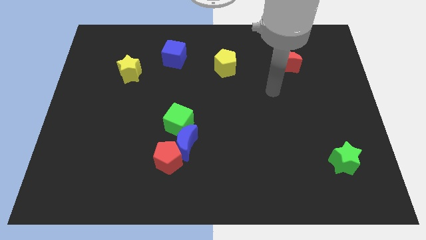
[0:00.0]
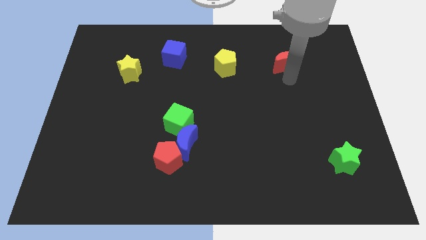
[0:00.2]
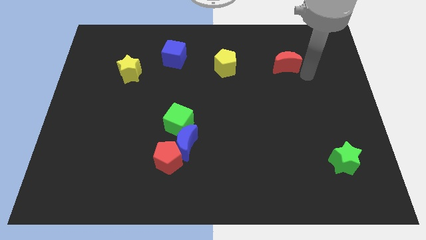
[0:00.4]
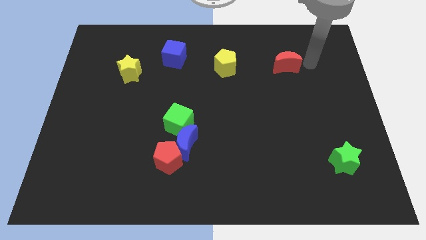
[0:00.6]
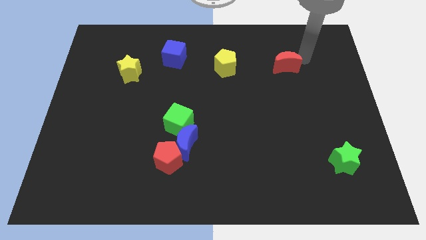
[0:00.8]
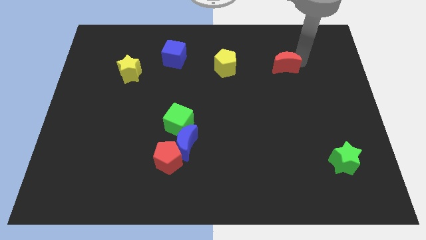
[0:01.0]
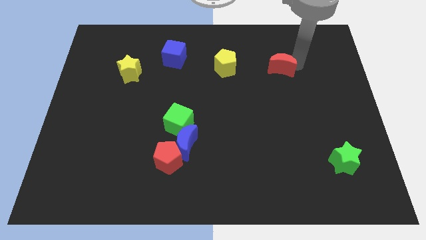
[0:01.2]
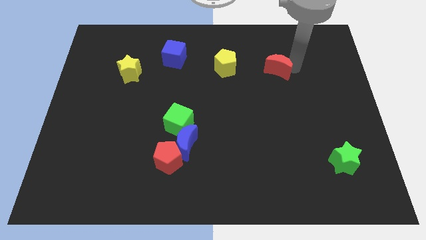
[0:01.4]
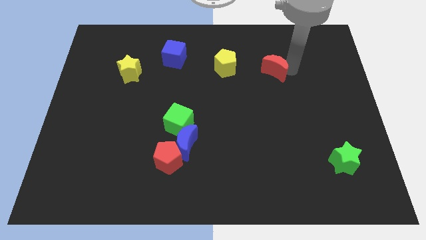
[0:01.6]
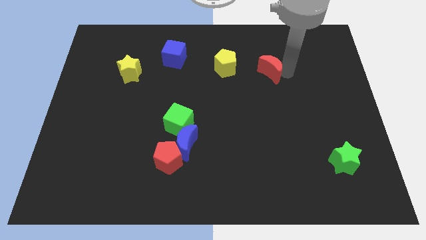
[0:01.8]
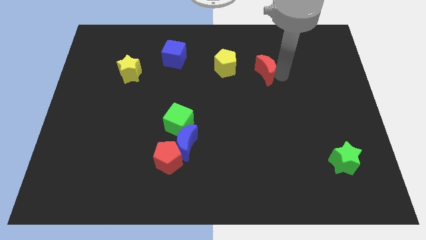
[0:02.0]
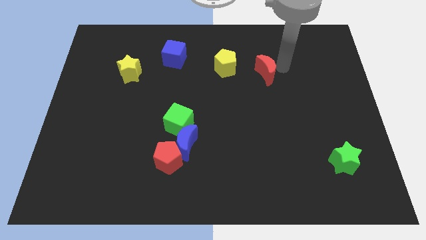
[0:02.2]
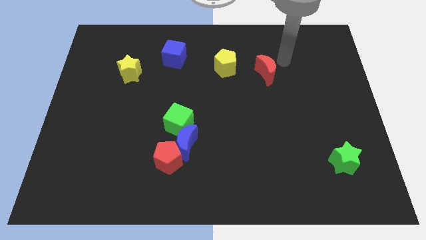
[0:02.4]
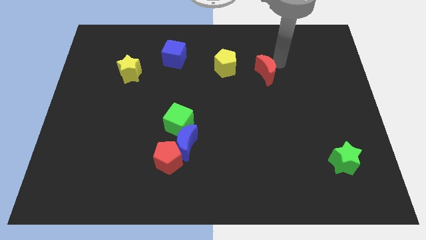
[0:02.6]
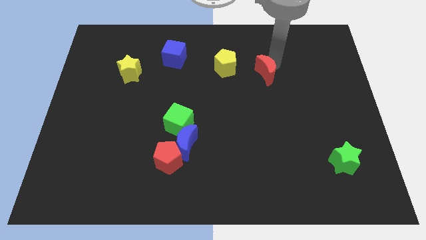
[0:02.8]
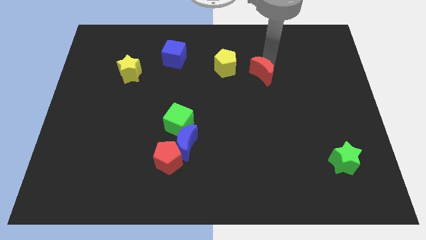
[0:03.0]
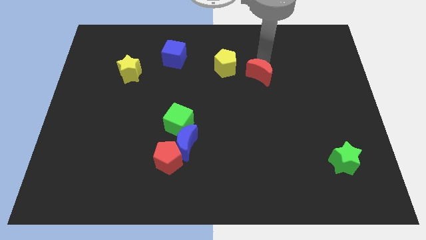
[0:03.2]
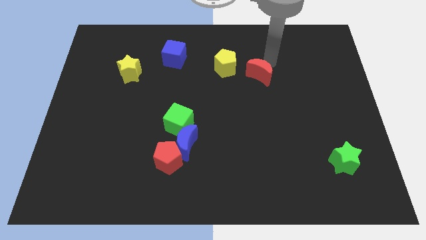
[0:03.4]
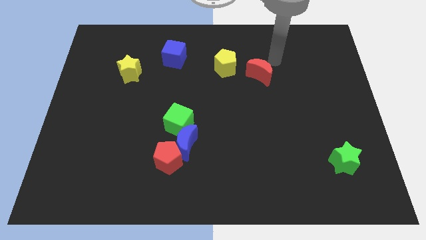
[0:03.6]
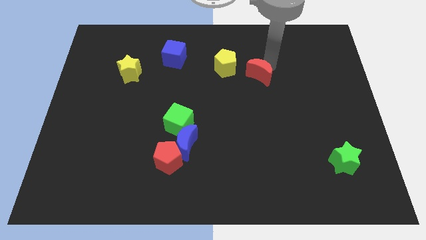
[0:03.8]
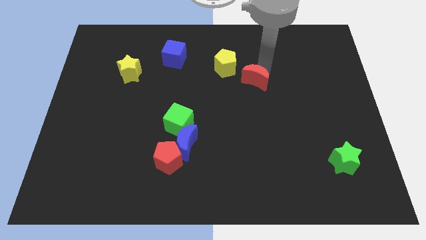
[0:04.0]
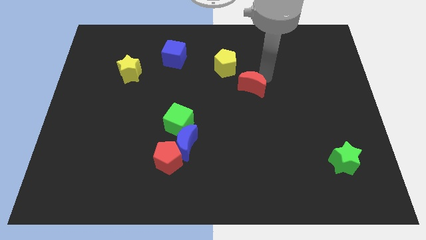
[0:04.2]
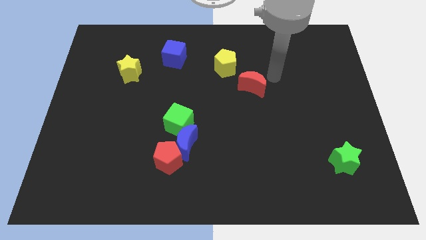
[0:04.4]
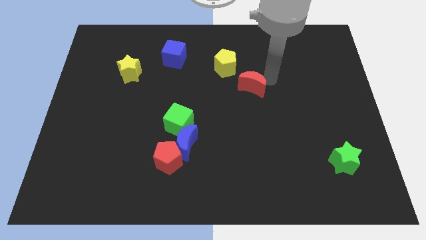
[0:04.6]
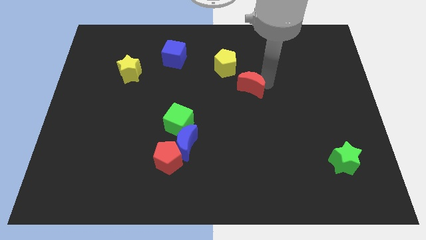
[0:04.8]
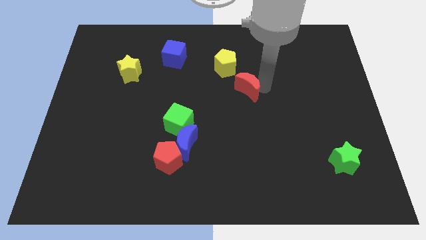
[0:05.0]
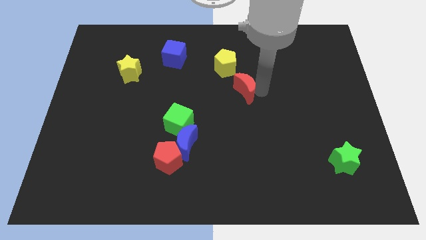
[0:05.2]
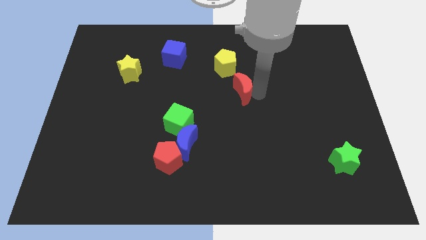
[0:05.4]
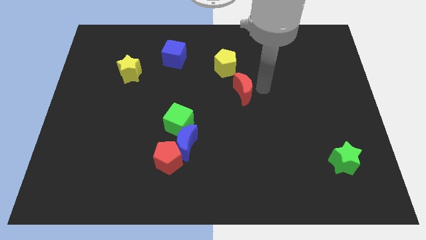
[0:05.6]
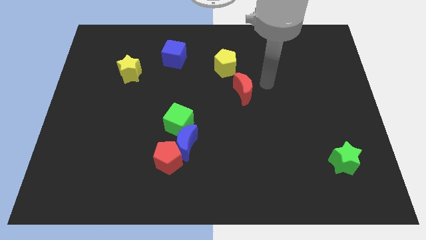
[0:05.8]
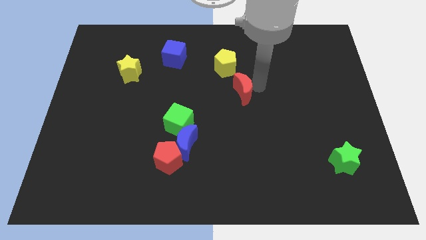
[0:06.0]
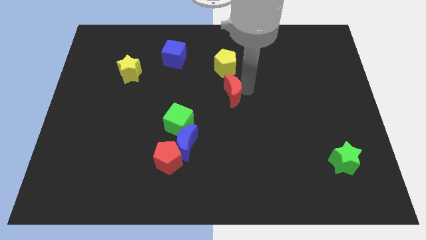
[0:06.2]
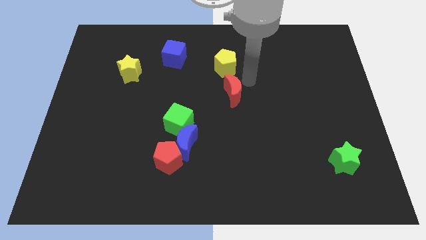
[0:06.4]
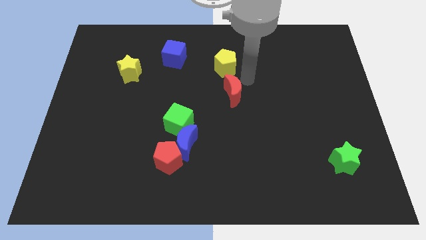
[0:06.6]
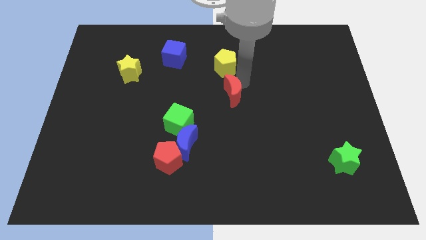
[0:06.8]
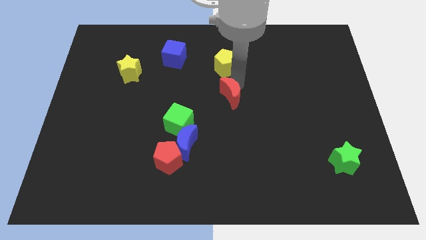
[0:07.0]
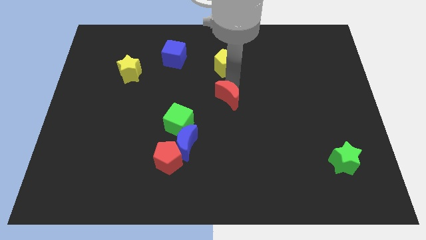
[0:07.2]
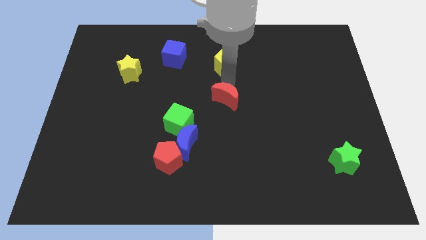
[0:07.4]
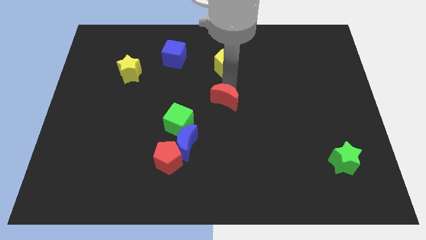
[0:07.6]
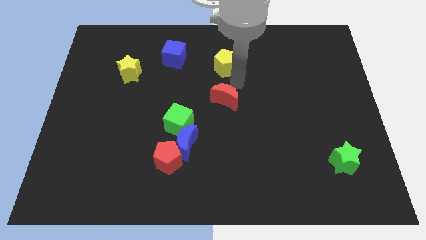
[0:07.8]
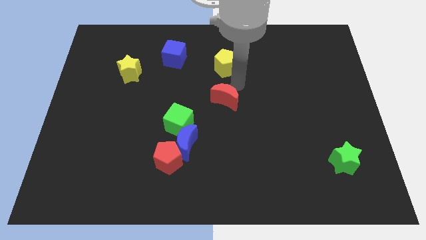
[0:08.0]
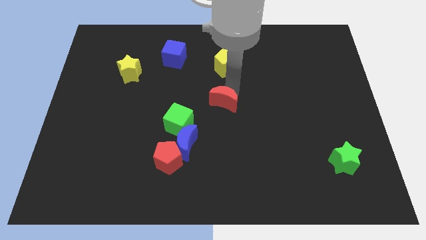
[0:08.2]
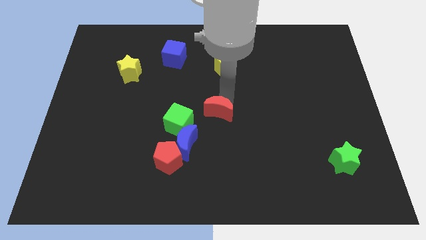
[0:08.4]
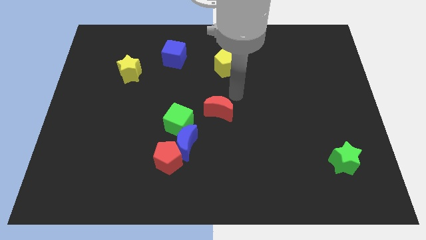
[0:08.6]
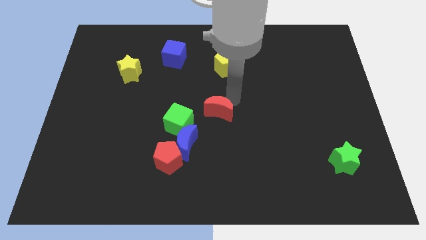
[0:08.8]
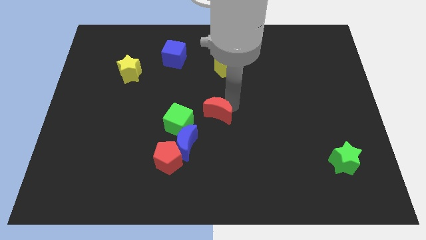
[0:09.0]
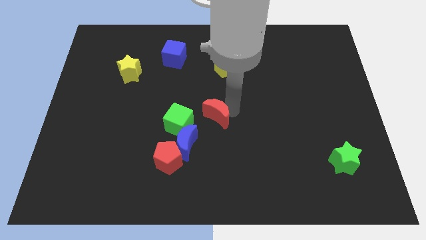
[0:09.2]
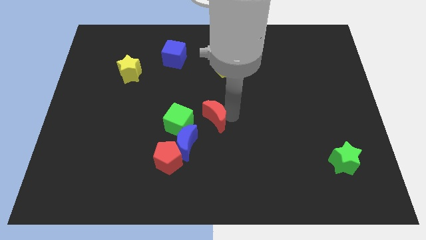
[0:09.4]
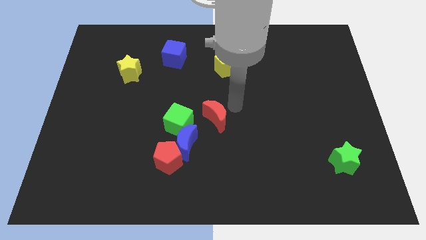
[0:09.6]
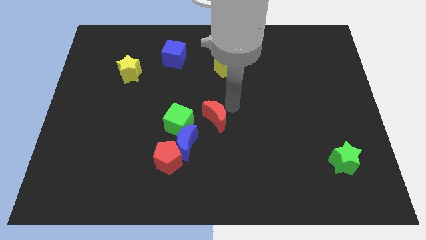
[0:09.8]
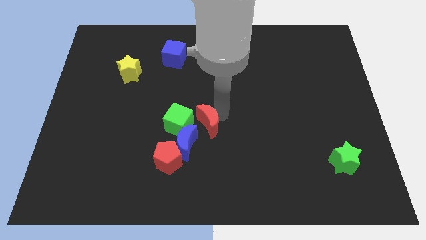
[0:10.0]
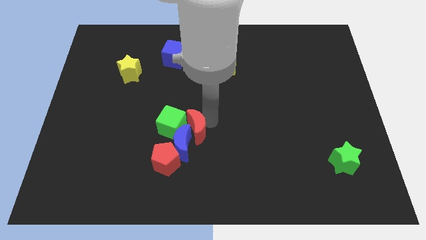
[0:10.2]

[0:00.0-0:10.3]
slide the red moon next to the blue moon

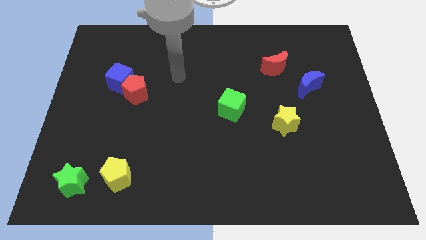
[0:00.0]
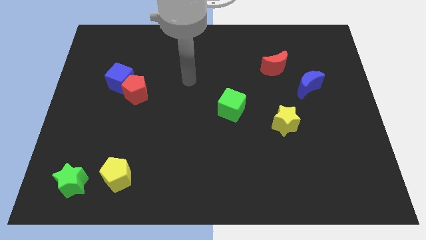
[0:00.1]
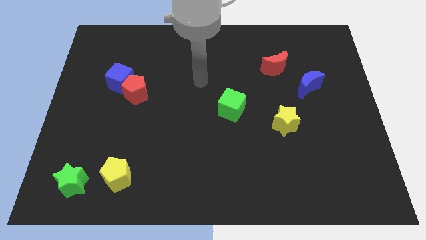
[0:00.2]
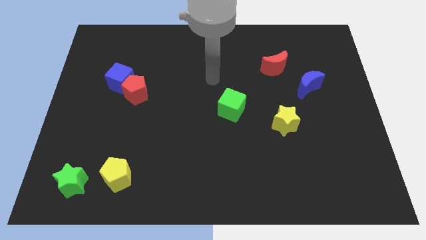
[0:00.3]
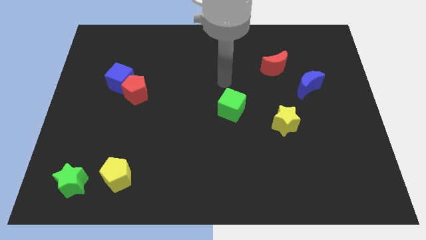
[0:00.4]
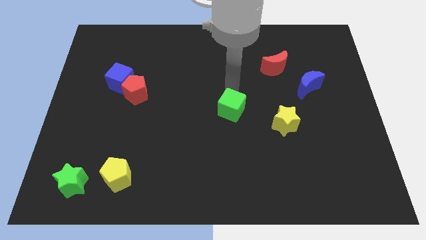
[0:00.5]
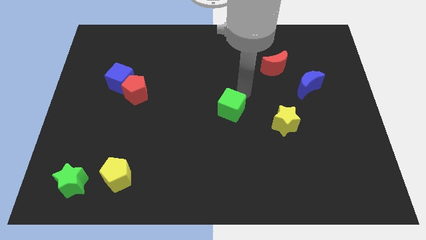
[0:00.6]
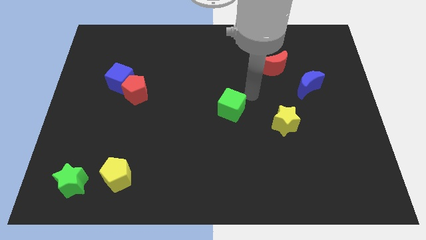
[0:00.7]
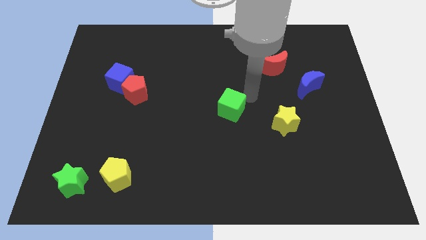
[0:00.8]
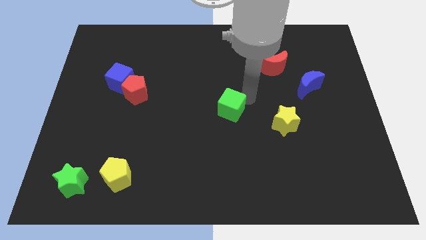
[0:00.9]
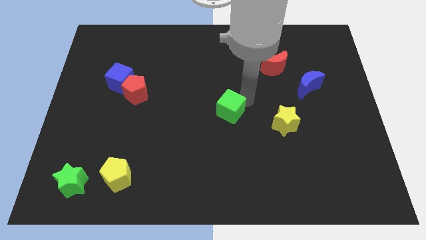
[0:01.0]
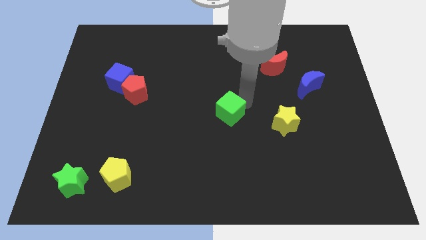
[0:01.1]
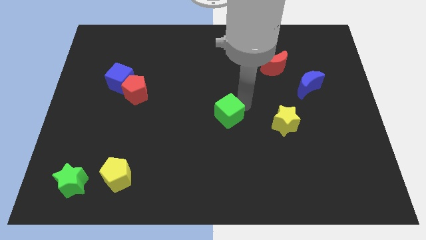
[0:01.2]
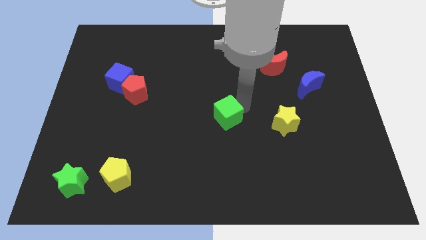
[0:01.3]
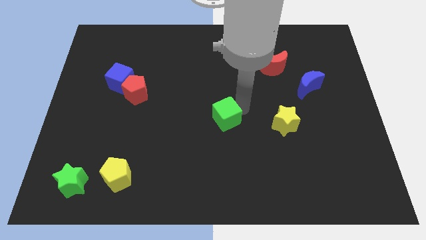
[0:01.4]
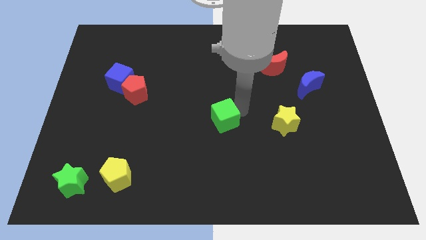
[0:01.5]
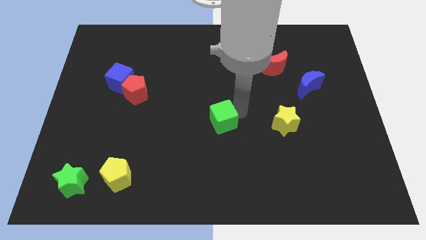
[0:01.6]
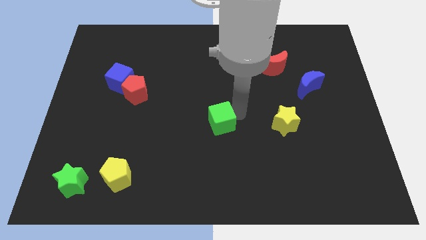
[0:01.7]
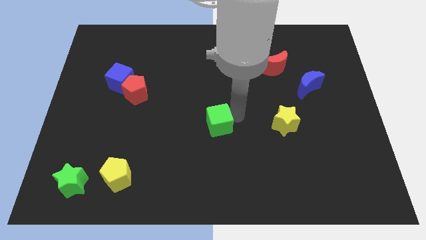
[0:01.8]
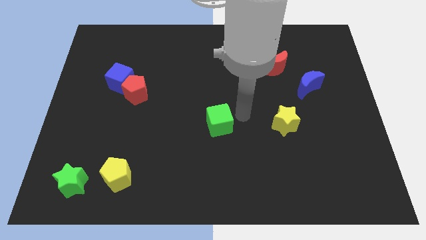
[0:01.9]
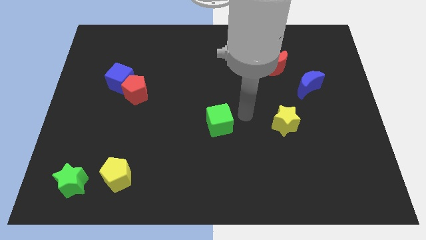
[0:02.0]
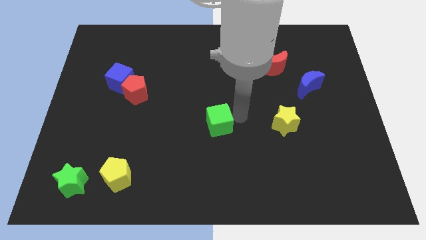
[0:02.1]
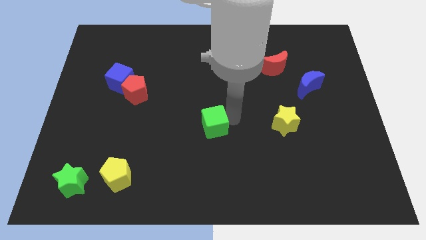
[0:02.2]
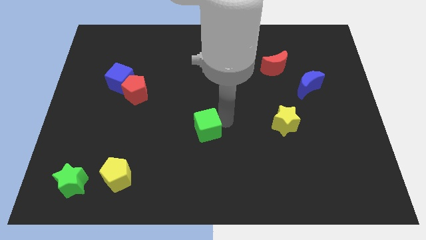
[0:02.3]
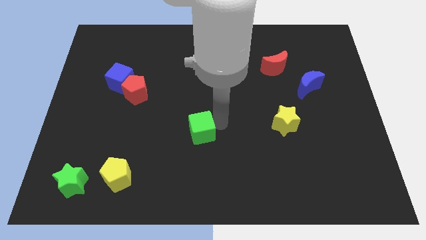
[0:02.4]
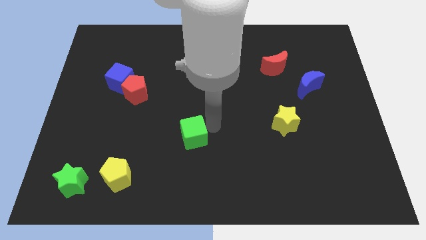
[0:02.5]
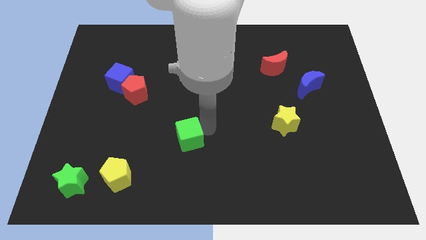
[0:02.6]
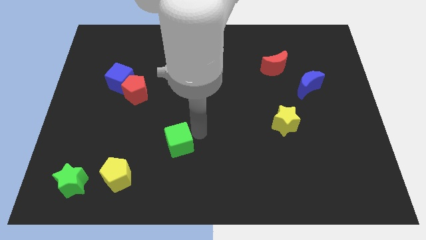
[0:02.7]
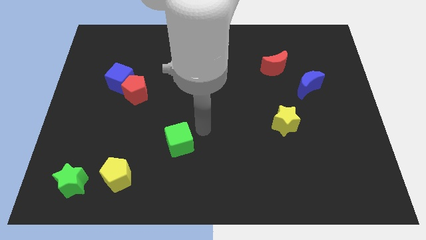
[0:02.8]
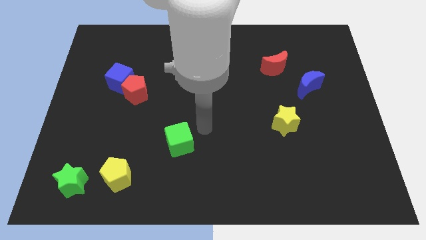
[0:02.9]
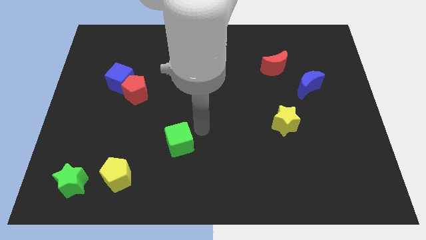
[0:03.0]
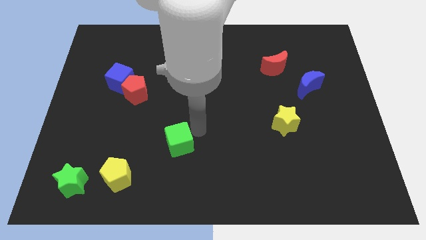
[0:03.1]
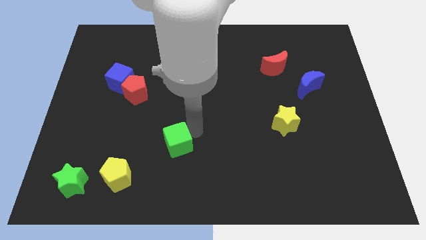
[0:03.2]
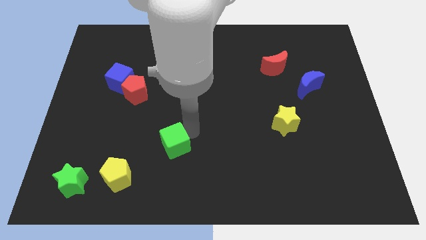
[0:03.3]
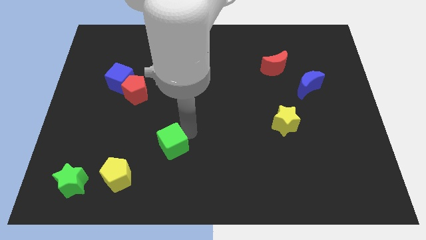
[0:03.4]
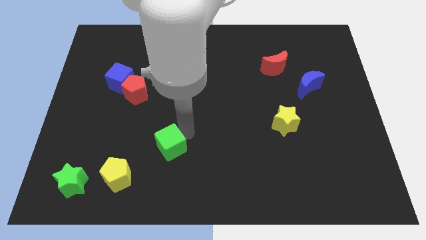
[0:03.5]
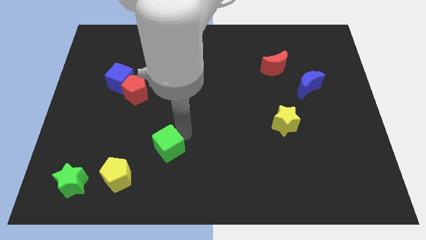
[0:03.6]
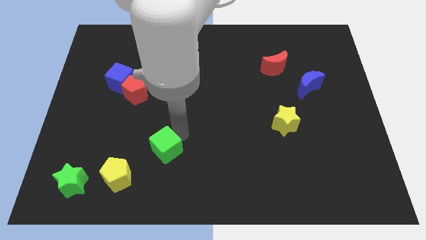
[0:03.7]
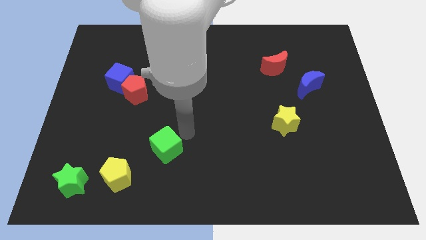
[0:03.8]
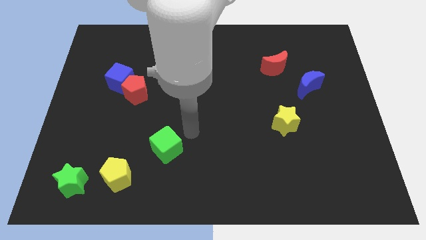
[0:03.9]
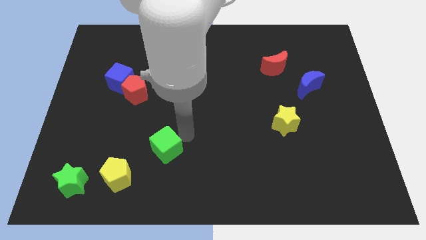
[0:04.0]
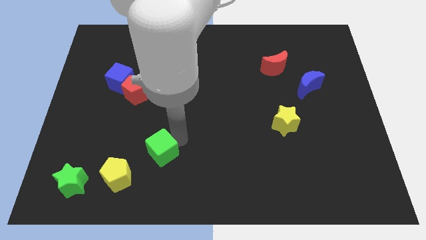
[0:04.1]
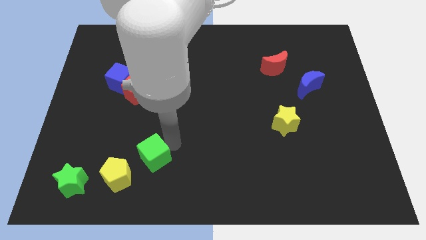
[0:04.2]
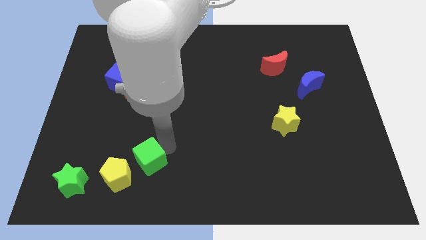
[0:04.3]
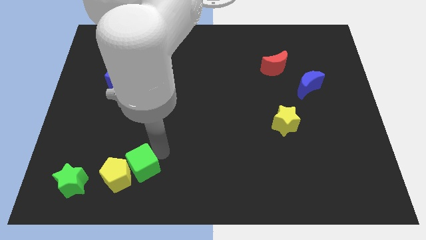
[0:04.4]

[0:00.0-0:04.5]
push the green cube next to the yellow pentagon
